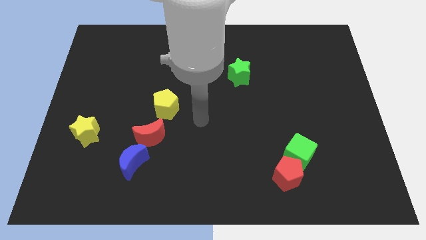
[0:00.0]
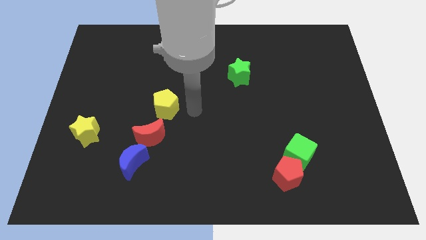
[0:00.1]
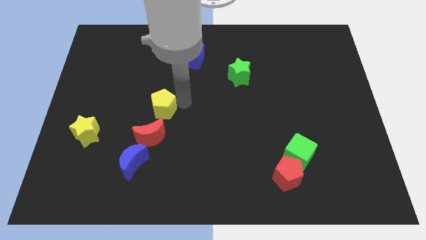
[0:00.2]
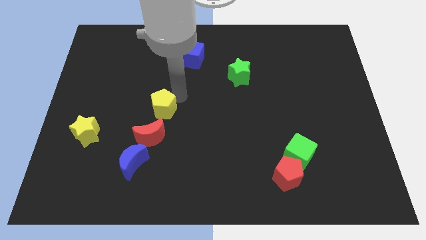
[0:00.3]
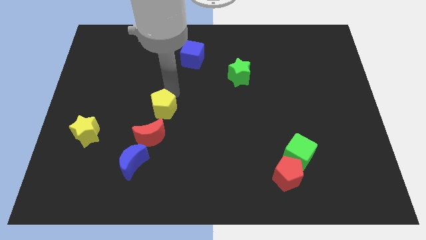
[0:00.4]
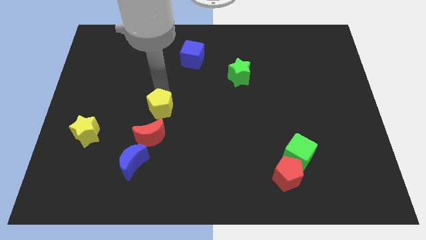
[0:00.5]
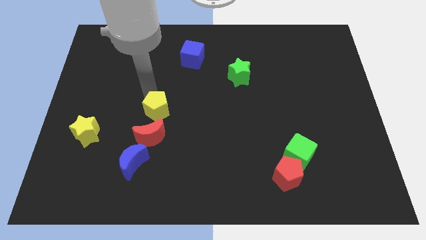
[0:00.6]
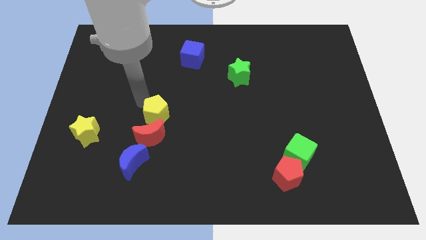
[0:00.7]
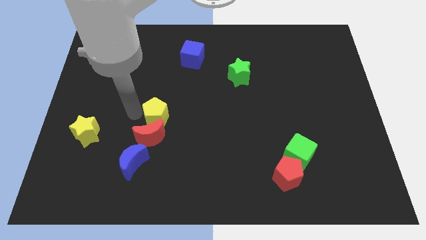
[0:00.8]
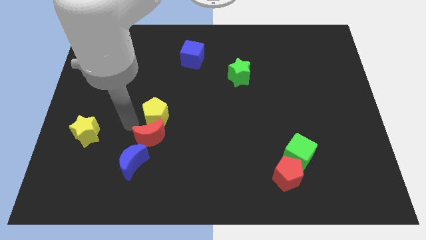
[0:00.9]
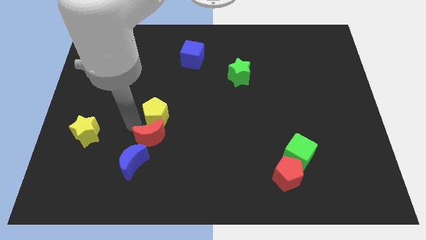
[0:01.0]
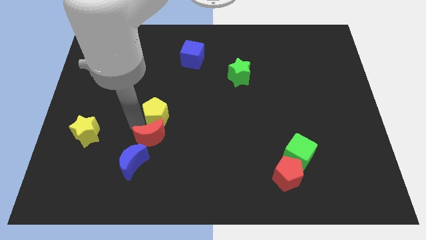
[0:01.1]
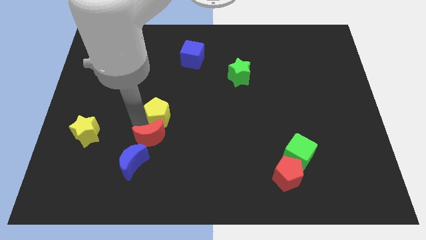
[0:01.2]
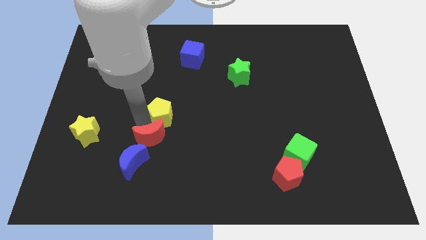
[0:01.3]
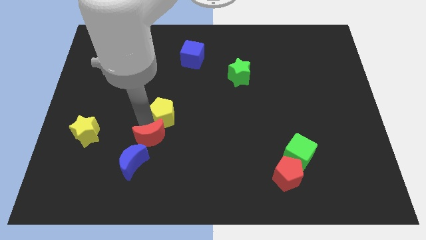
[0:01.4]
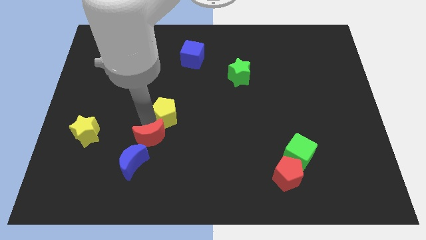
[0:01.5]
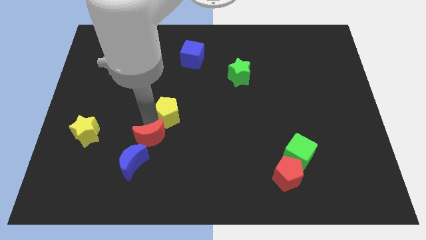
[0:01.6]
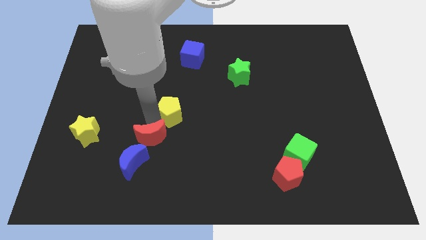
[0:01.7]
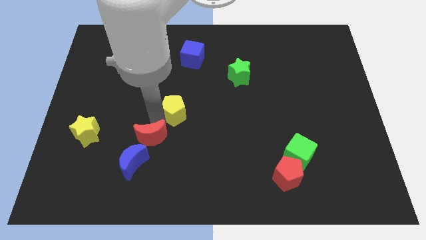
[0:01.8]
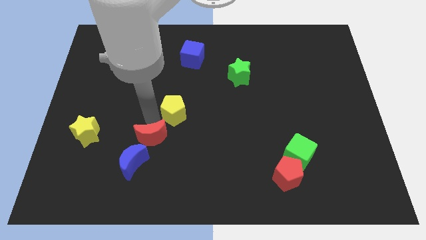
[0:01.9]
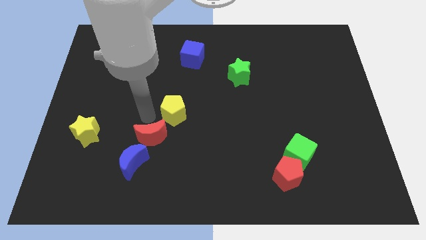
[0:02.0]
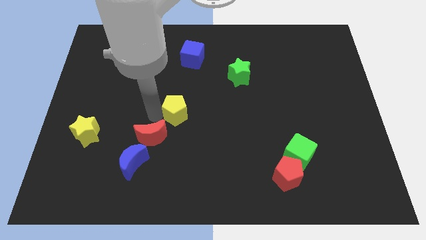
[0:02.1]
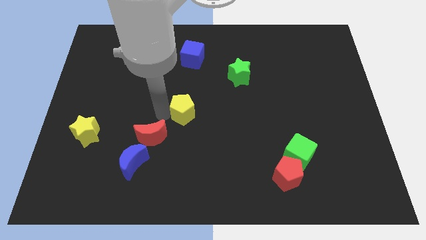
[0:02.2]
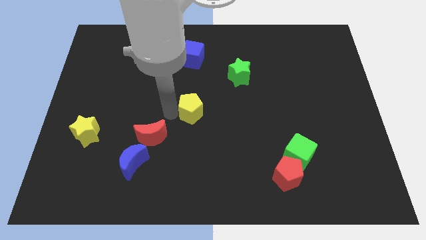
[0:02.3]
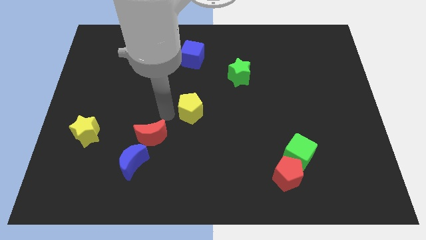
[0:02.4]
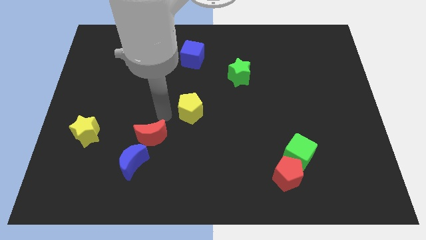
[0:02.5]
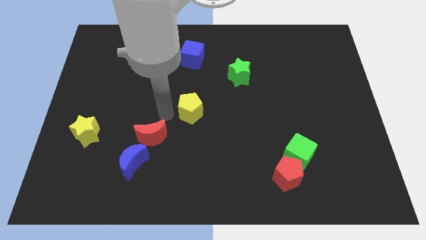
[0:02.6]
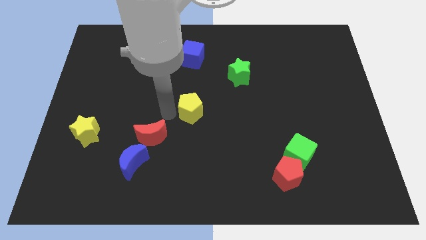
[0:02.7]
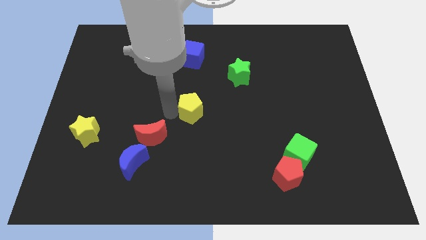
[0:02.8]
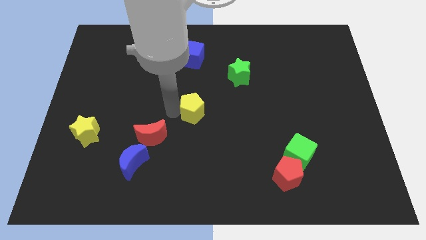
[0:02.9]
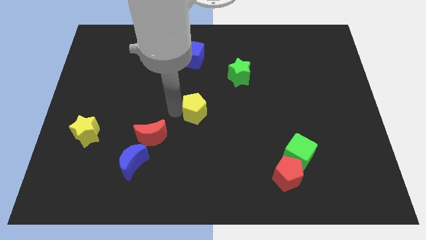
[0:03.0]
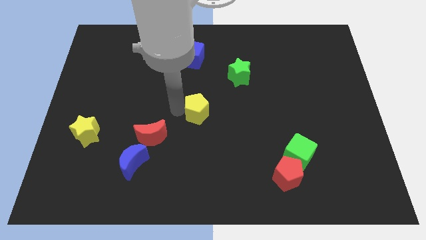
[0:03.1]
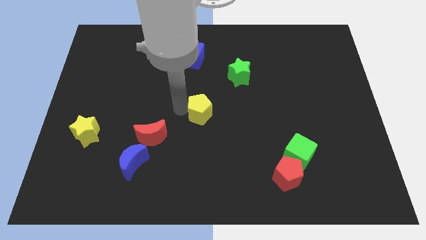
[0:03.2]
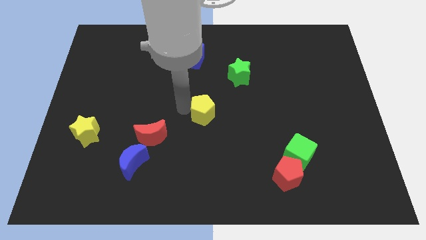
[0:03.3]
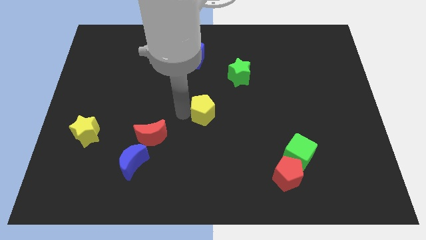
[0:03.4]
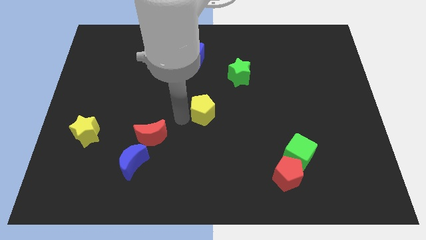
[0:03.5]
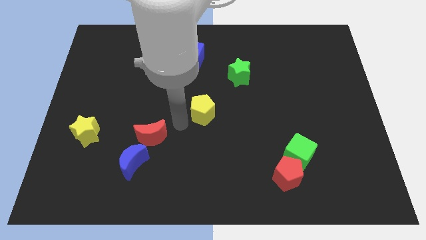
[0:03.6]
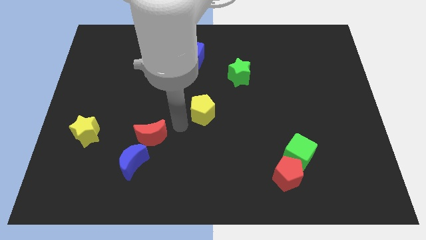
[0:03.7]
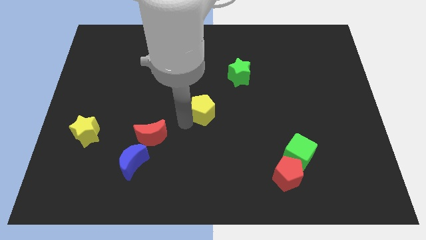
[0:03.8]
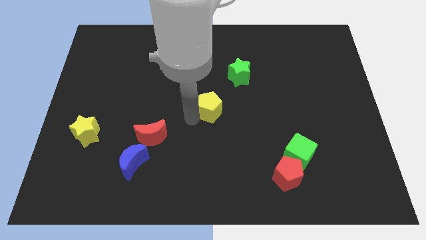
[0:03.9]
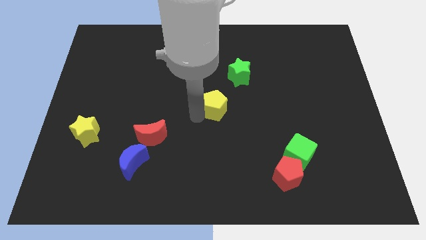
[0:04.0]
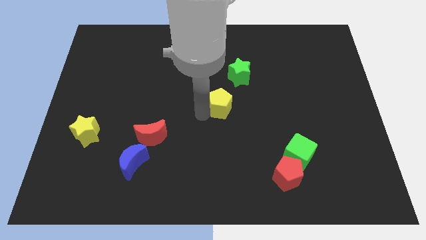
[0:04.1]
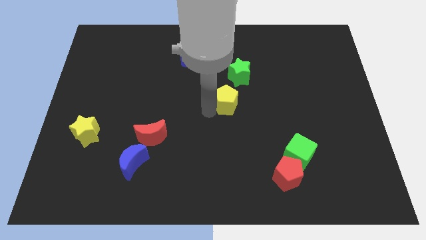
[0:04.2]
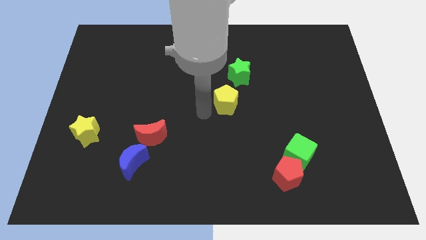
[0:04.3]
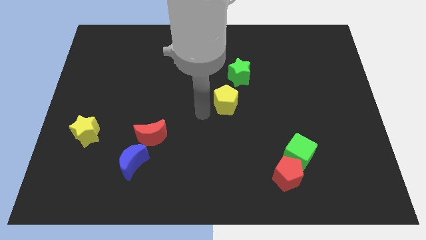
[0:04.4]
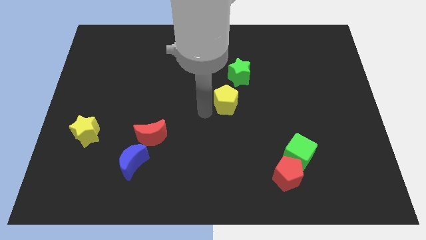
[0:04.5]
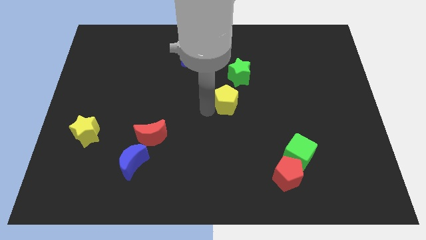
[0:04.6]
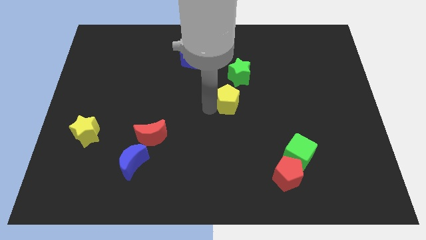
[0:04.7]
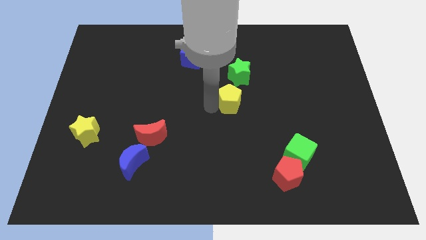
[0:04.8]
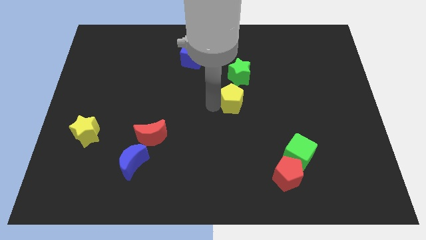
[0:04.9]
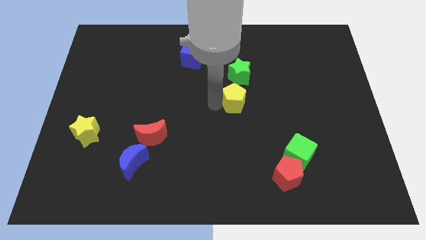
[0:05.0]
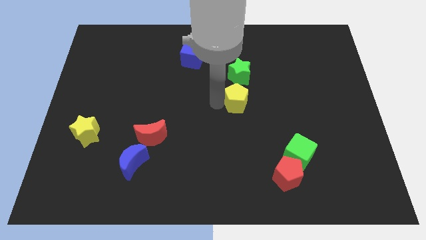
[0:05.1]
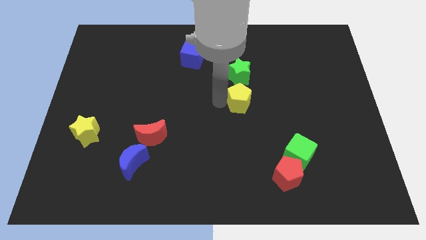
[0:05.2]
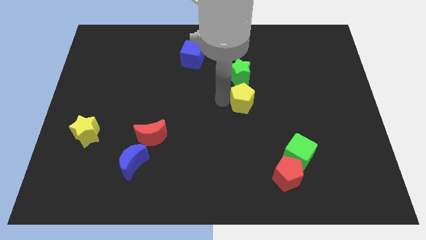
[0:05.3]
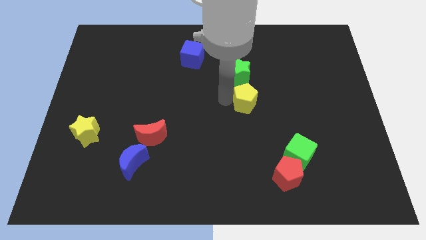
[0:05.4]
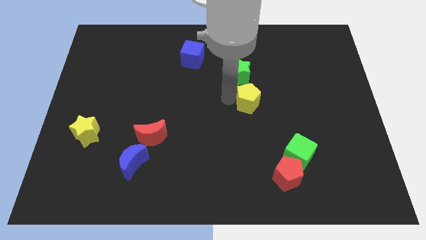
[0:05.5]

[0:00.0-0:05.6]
slide the yellow pentagon to the bottom right side of the green star

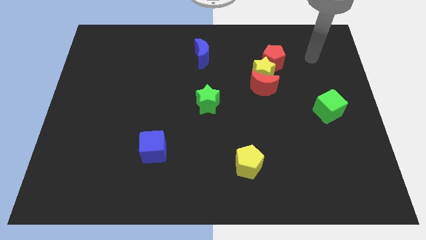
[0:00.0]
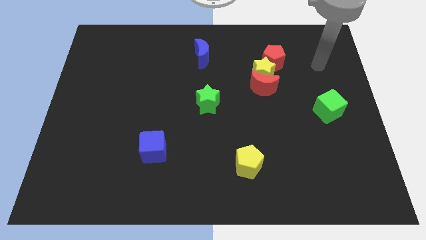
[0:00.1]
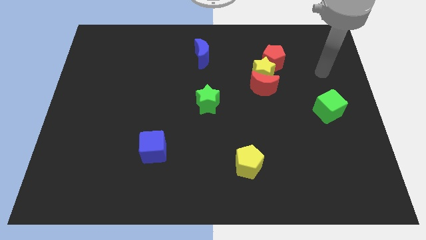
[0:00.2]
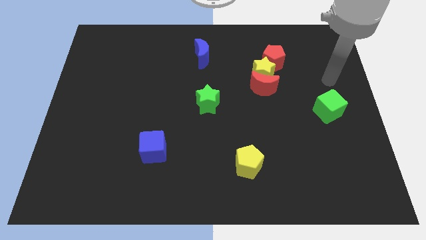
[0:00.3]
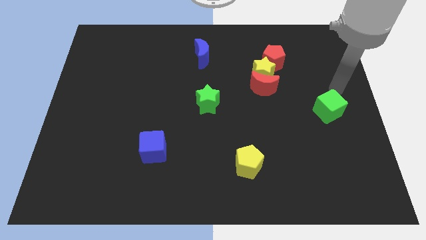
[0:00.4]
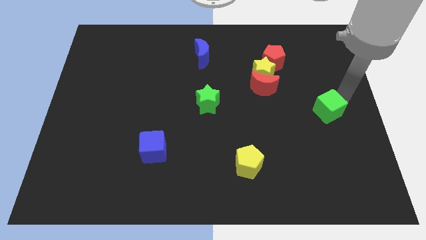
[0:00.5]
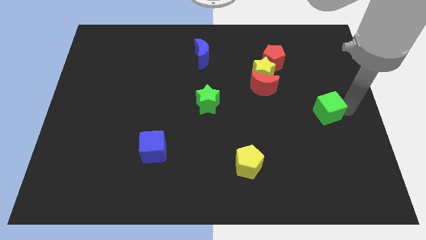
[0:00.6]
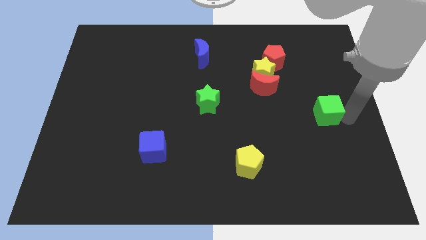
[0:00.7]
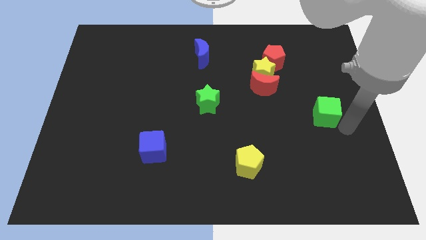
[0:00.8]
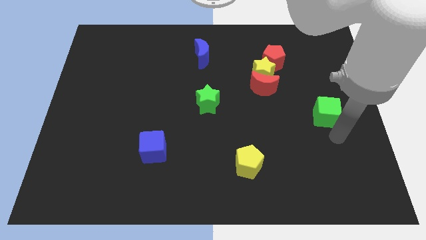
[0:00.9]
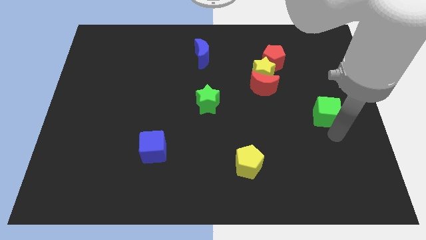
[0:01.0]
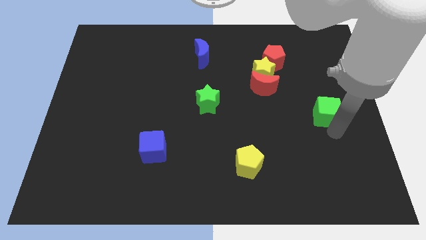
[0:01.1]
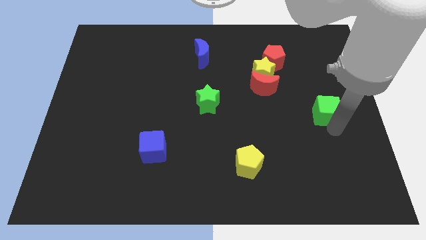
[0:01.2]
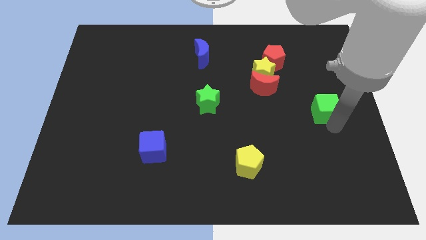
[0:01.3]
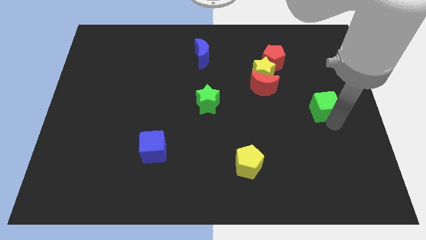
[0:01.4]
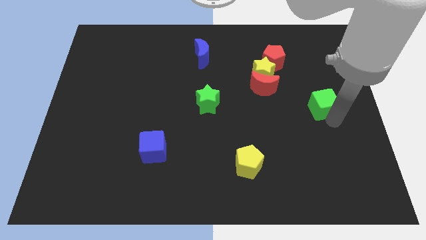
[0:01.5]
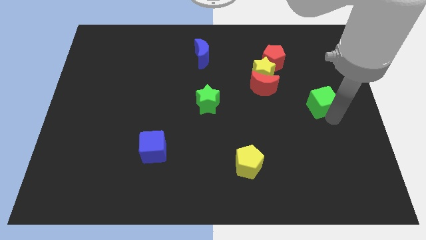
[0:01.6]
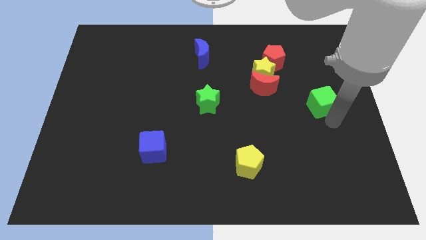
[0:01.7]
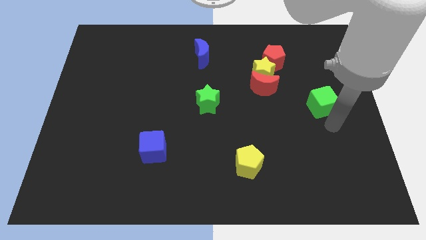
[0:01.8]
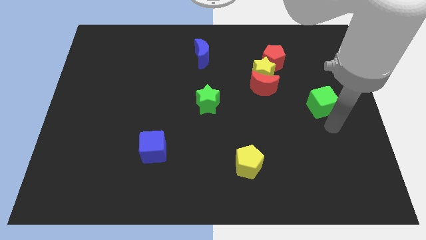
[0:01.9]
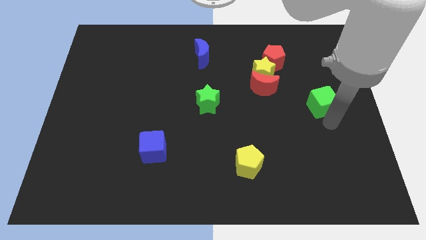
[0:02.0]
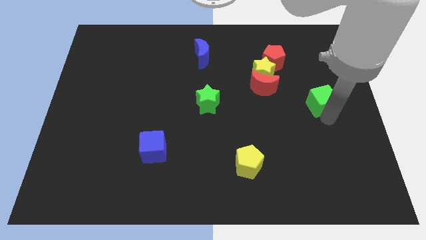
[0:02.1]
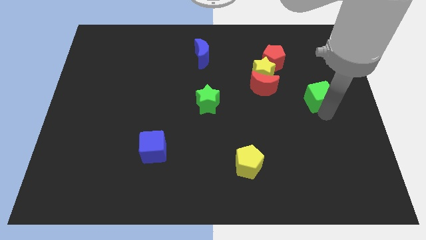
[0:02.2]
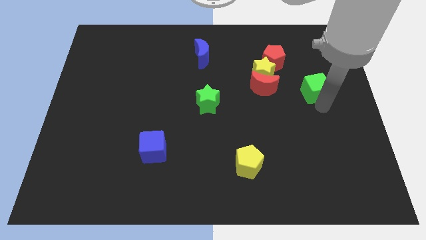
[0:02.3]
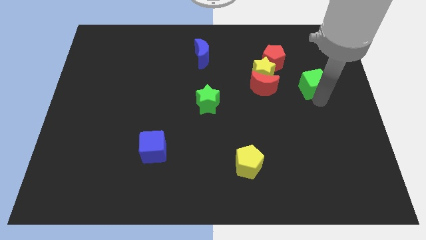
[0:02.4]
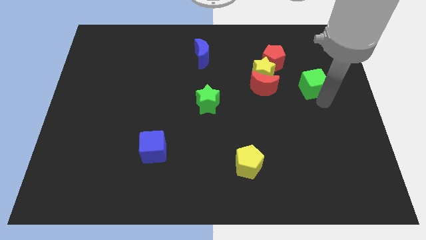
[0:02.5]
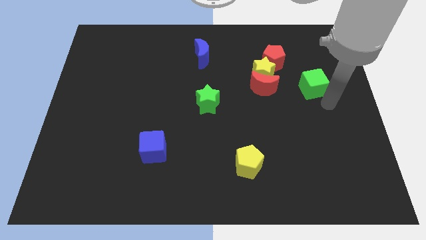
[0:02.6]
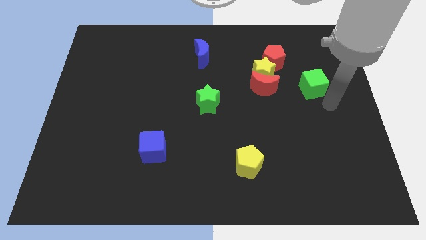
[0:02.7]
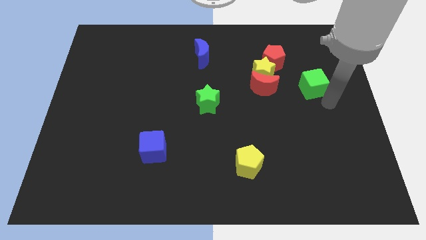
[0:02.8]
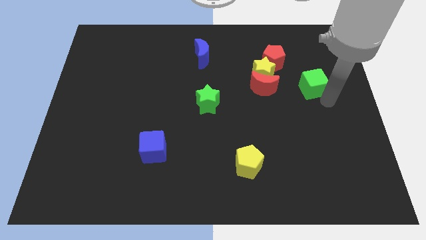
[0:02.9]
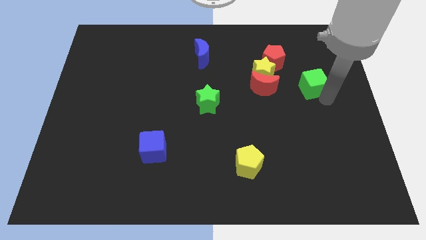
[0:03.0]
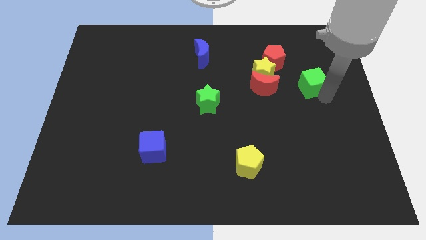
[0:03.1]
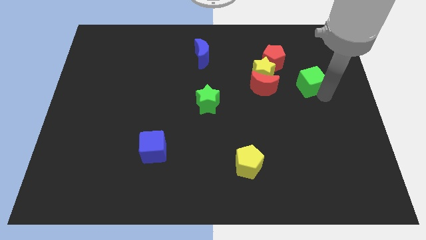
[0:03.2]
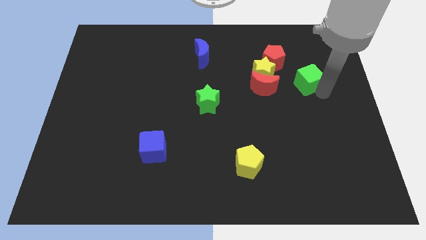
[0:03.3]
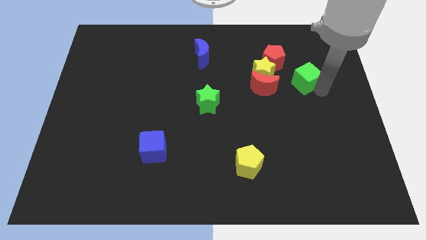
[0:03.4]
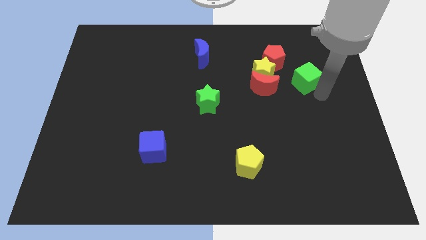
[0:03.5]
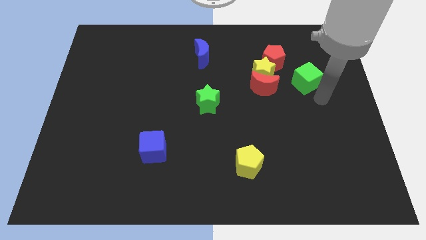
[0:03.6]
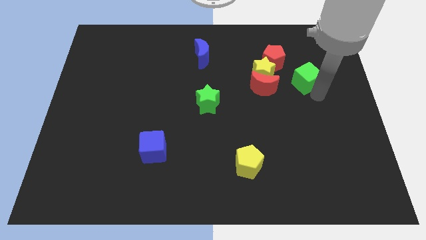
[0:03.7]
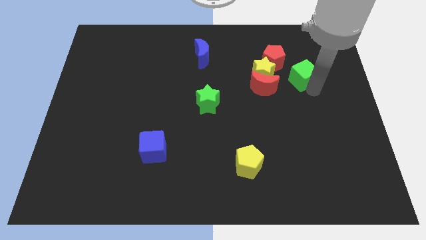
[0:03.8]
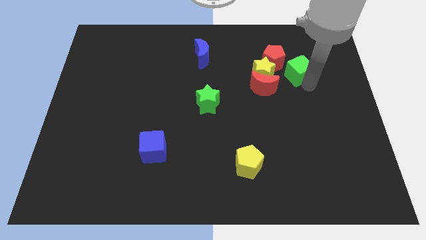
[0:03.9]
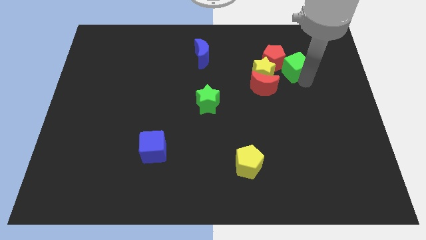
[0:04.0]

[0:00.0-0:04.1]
push the green cube to the top right side of the yellow star
